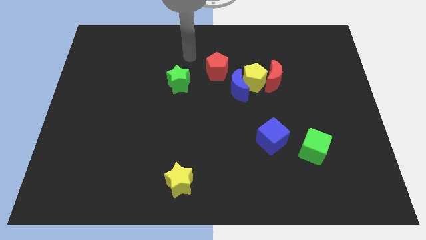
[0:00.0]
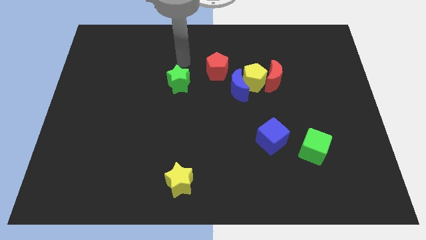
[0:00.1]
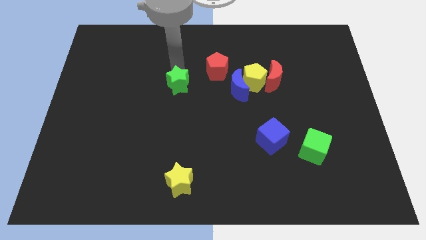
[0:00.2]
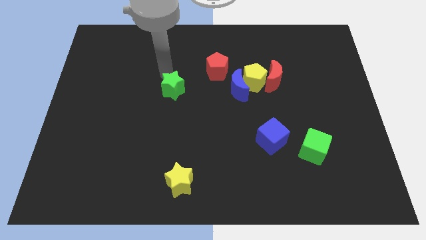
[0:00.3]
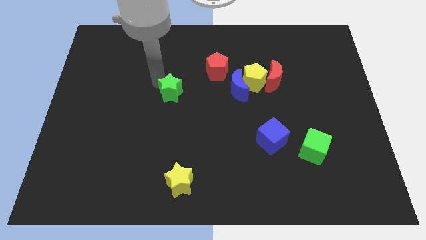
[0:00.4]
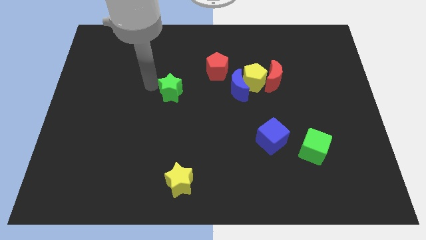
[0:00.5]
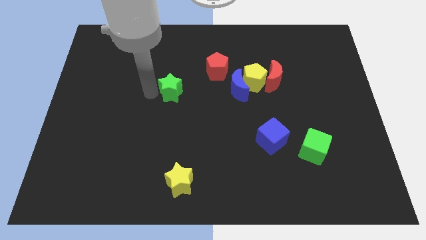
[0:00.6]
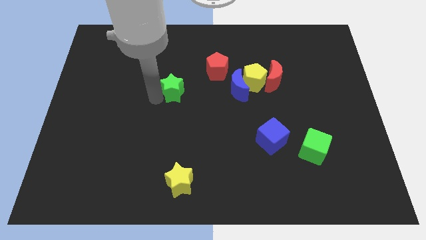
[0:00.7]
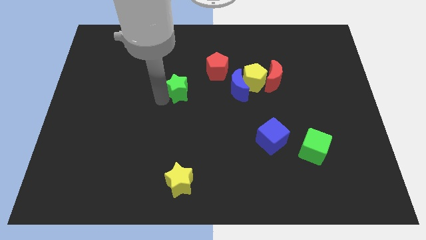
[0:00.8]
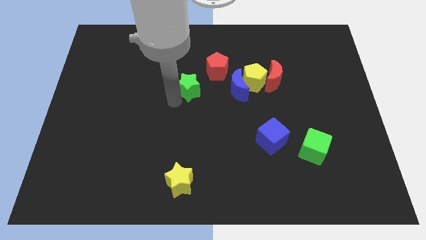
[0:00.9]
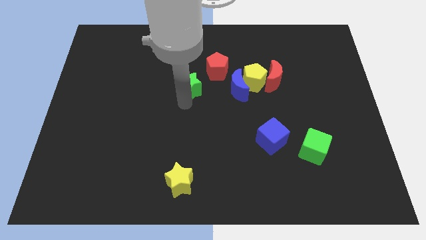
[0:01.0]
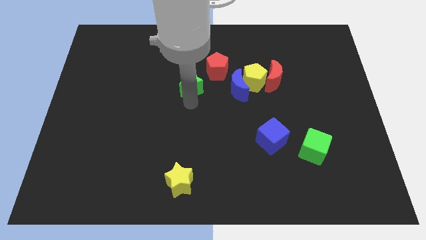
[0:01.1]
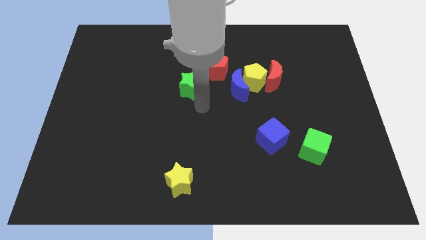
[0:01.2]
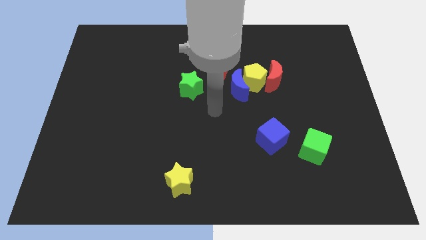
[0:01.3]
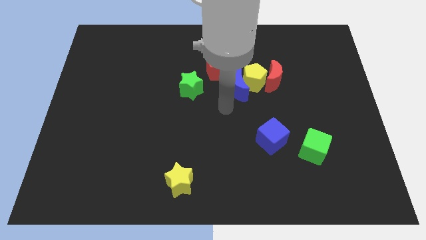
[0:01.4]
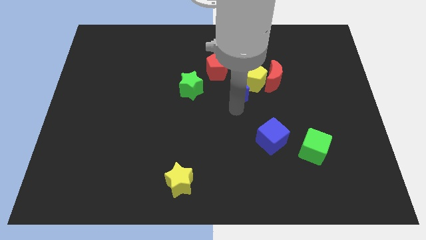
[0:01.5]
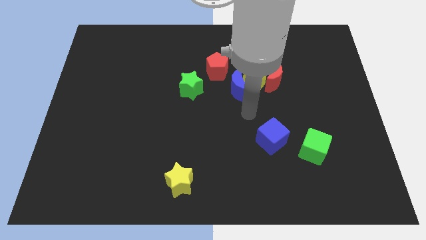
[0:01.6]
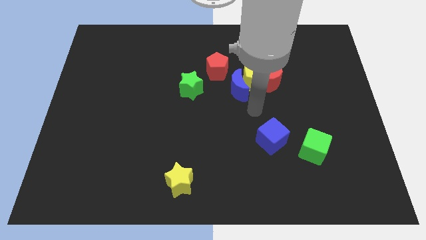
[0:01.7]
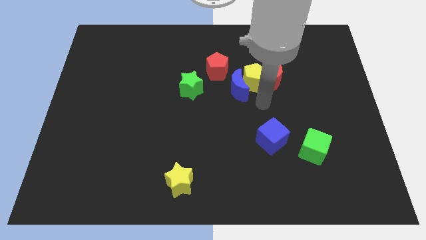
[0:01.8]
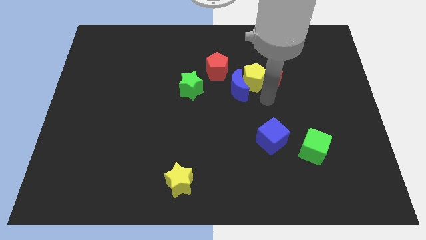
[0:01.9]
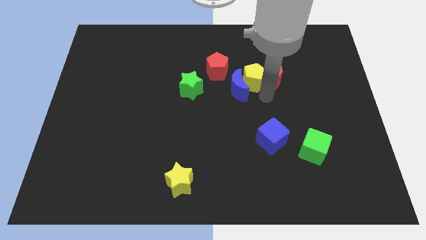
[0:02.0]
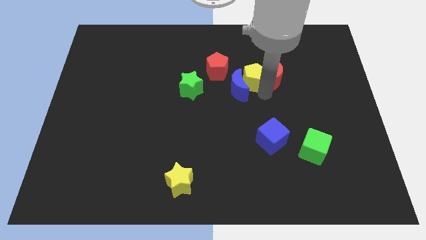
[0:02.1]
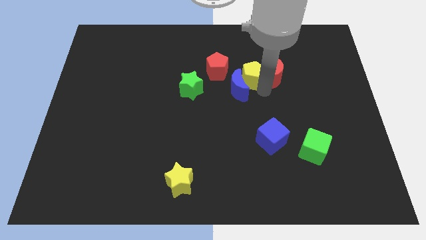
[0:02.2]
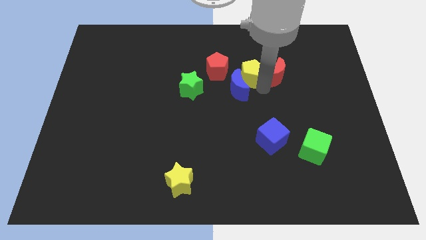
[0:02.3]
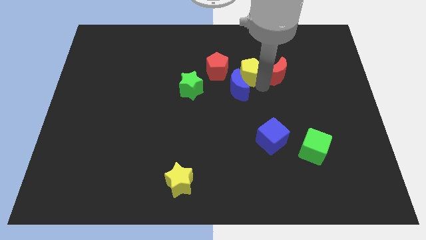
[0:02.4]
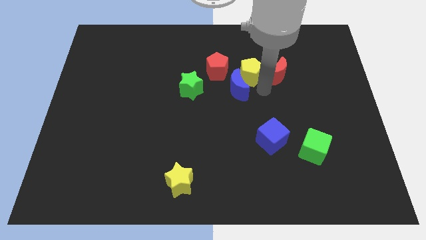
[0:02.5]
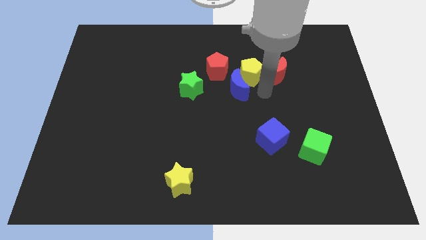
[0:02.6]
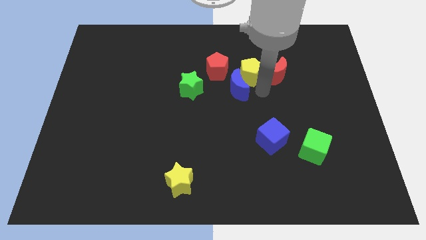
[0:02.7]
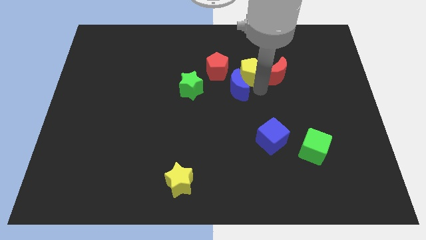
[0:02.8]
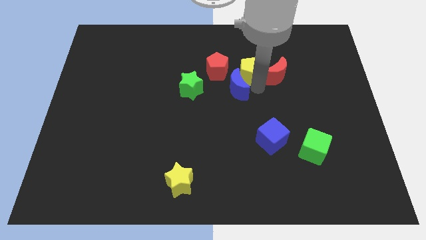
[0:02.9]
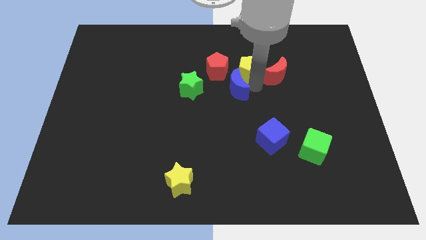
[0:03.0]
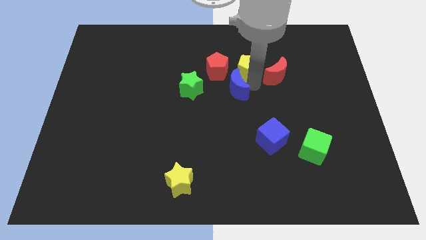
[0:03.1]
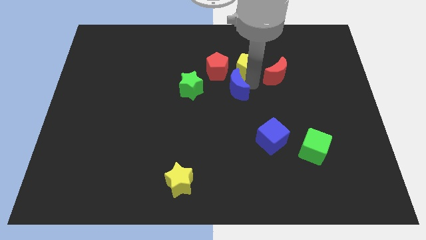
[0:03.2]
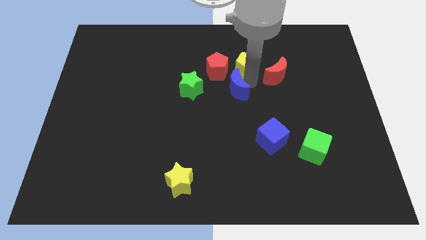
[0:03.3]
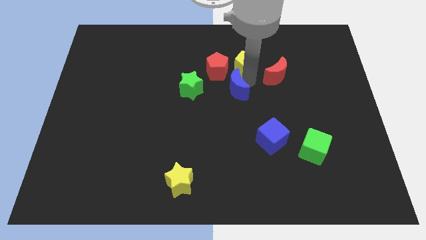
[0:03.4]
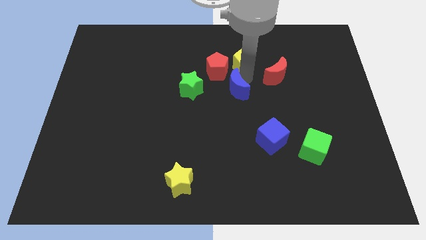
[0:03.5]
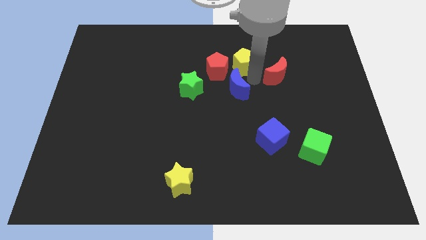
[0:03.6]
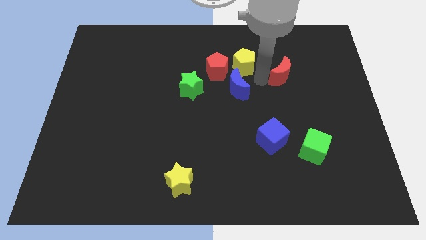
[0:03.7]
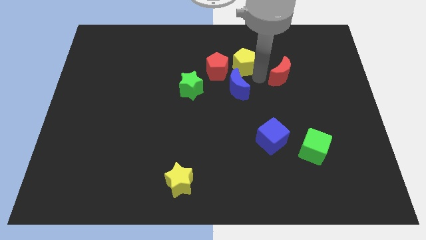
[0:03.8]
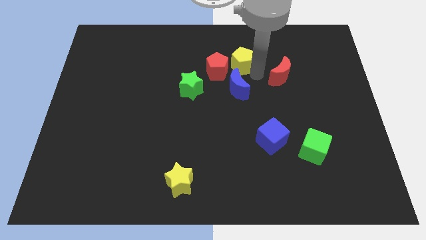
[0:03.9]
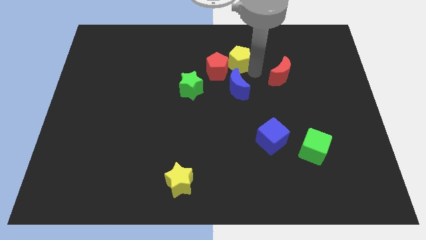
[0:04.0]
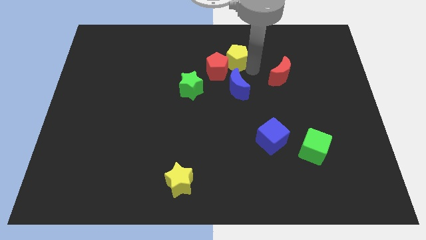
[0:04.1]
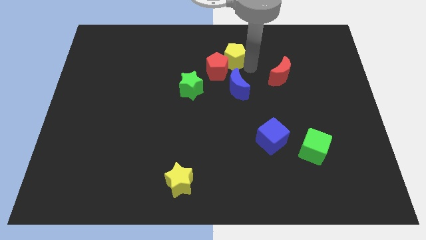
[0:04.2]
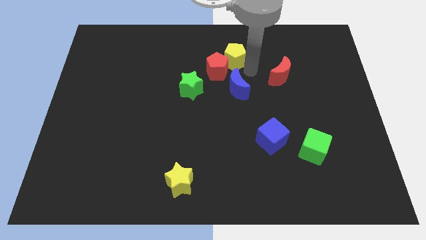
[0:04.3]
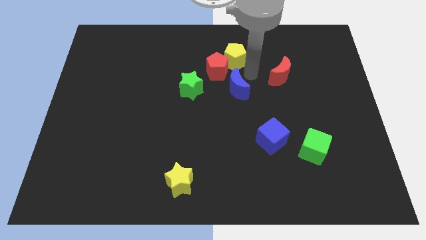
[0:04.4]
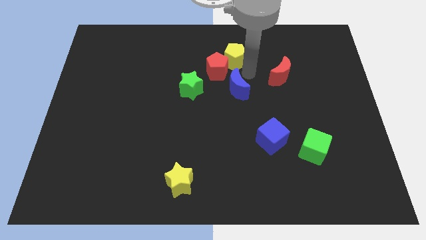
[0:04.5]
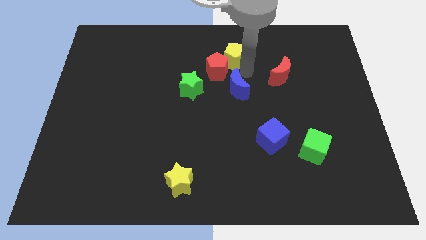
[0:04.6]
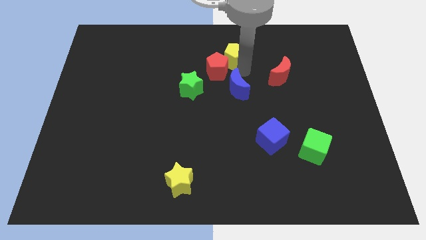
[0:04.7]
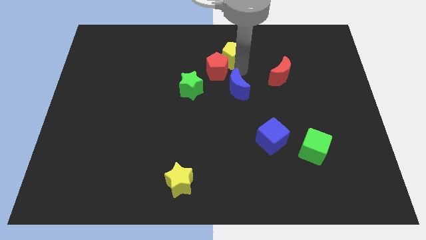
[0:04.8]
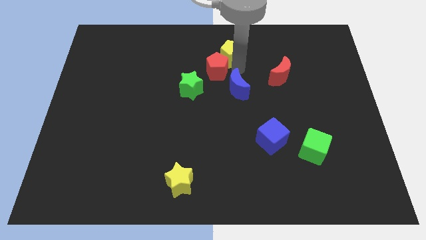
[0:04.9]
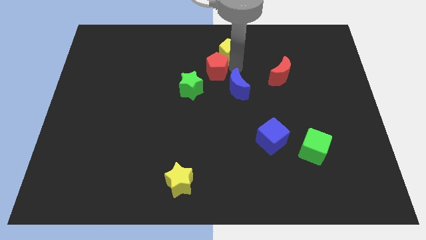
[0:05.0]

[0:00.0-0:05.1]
push the yellow pentagon to the top side
